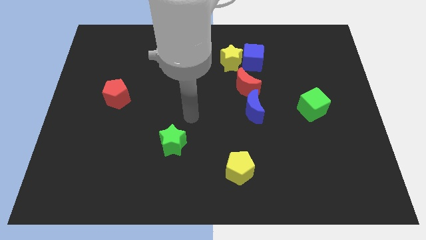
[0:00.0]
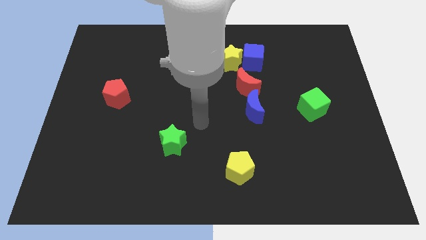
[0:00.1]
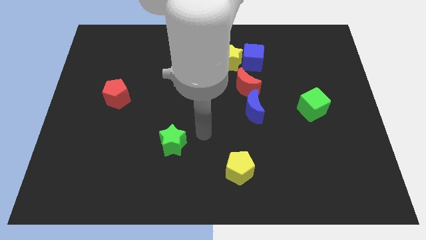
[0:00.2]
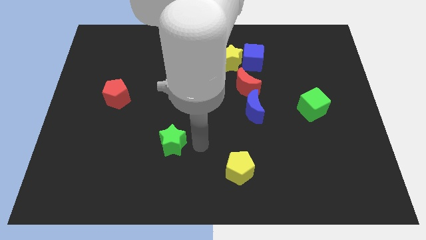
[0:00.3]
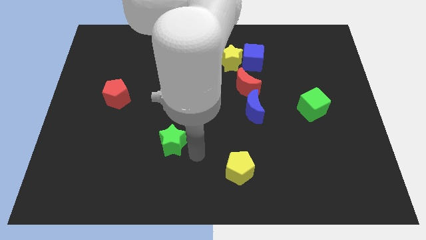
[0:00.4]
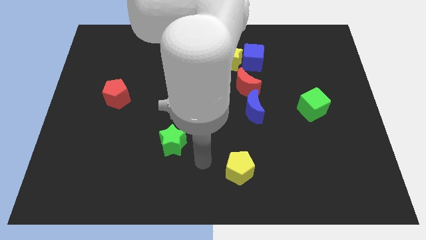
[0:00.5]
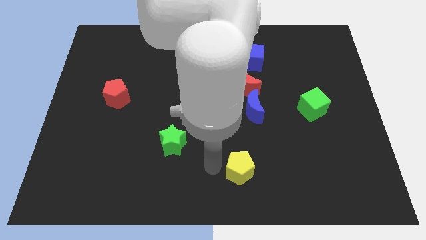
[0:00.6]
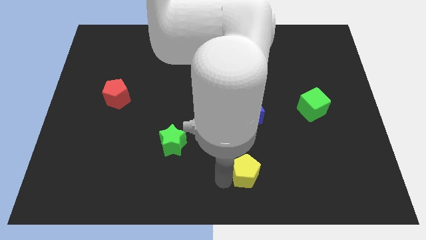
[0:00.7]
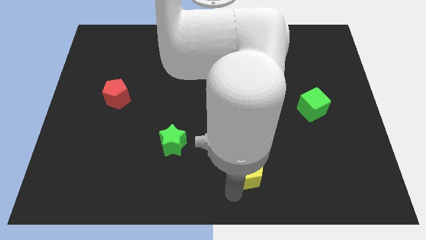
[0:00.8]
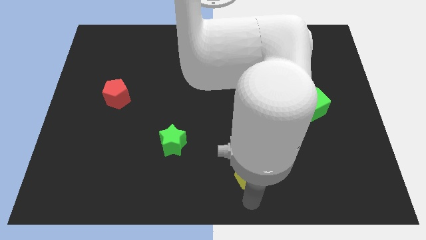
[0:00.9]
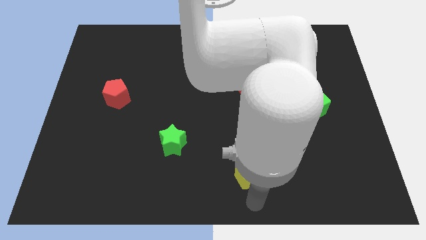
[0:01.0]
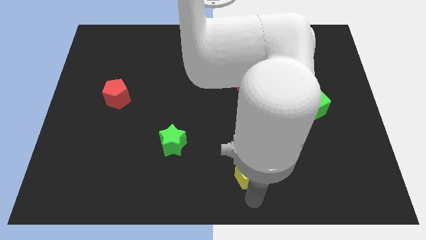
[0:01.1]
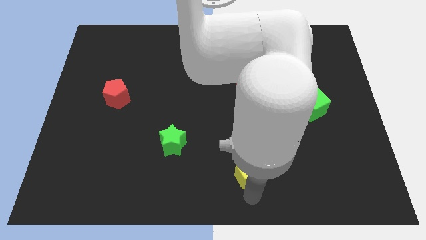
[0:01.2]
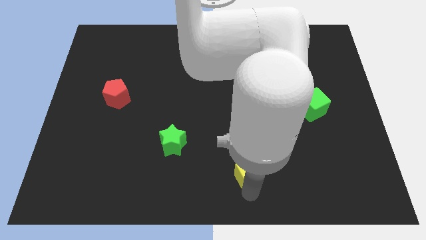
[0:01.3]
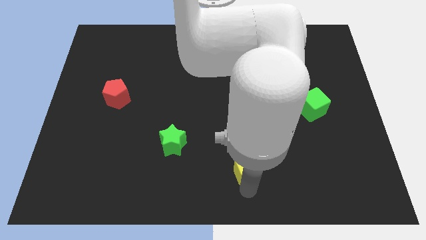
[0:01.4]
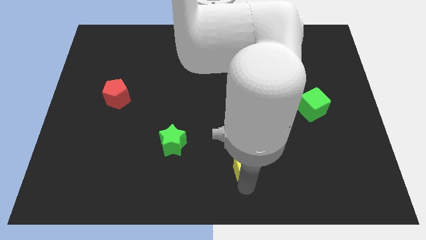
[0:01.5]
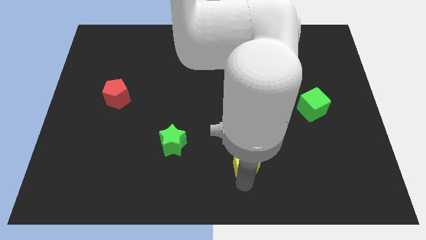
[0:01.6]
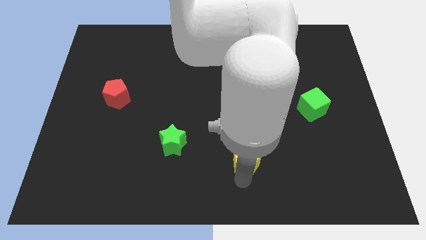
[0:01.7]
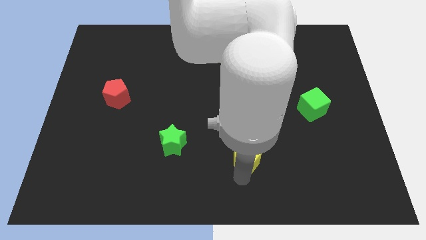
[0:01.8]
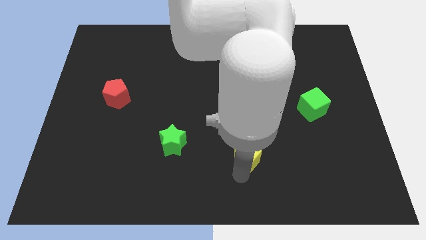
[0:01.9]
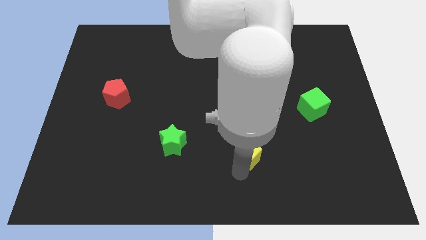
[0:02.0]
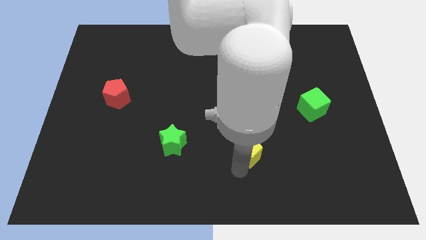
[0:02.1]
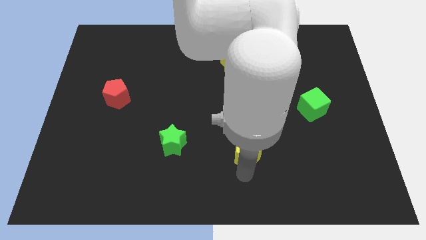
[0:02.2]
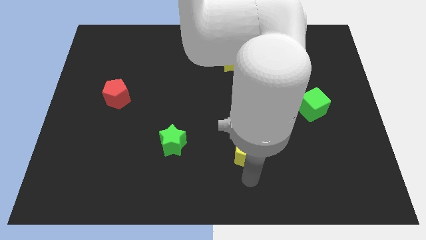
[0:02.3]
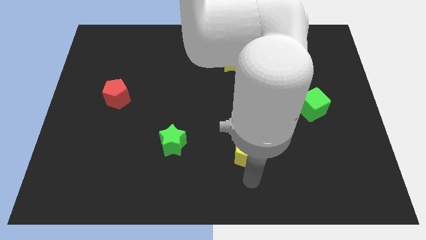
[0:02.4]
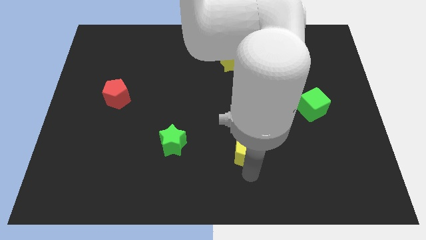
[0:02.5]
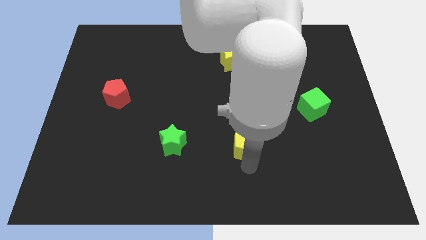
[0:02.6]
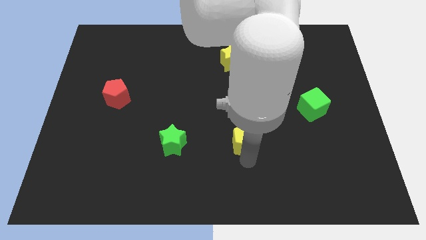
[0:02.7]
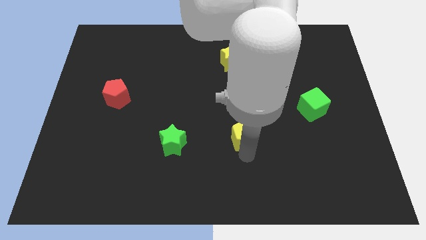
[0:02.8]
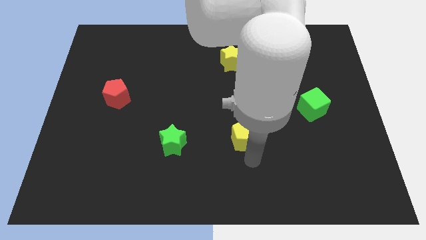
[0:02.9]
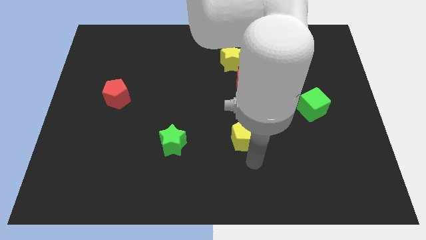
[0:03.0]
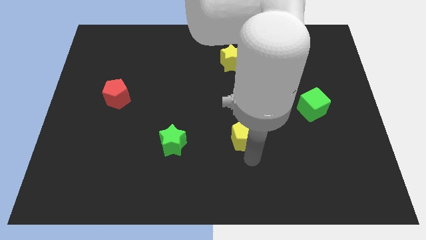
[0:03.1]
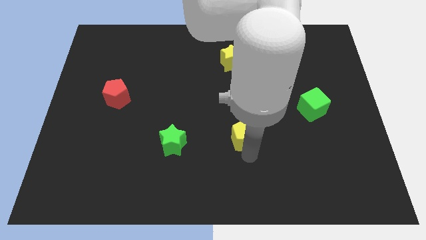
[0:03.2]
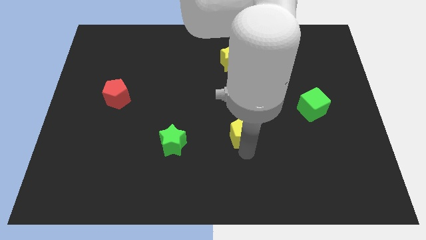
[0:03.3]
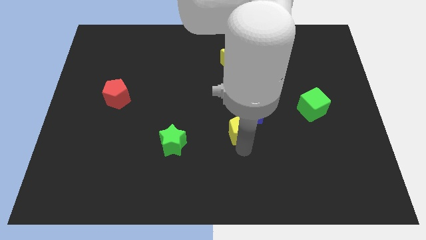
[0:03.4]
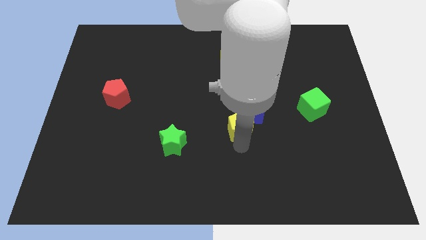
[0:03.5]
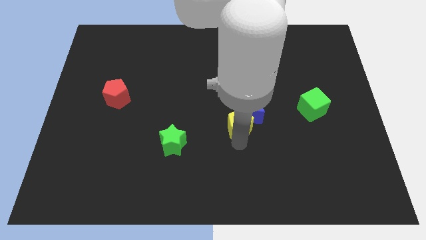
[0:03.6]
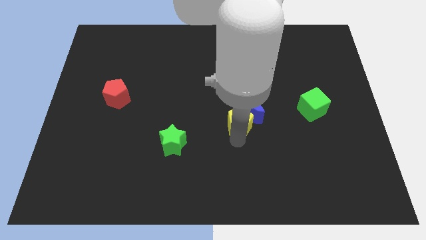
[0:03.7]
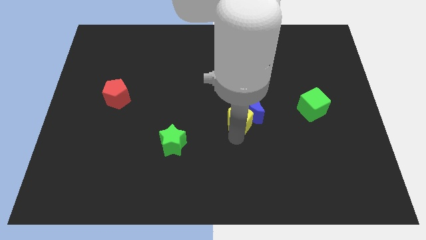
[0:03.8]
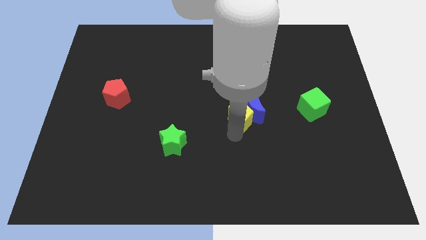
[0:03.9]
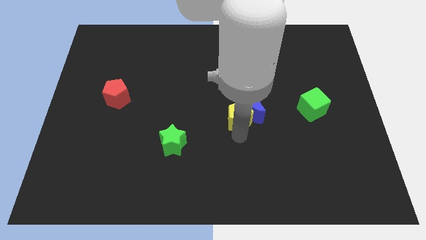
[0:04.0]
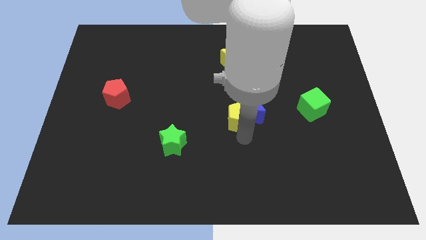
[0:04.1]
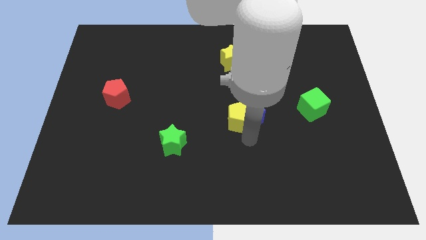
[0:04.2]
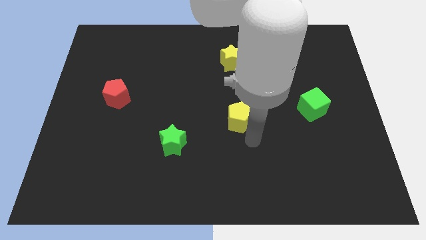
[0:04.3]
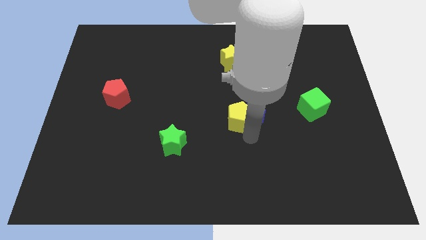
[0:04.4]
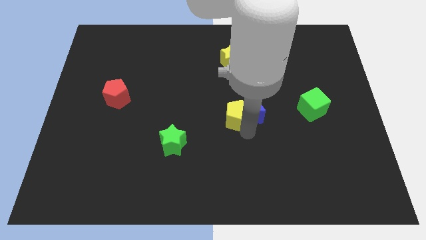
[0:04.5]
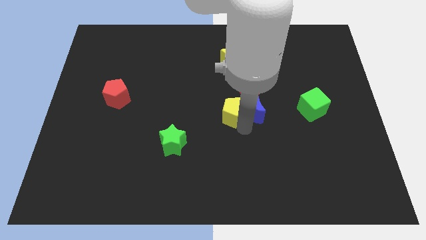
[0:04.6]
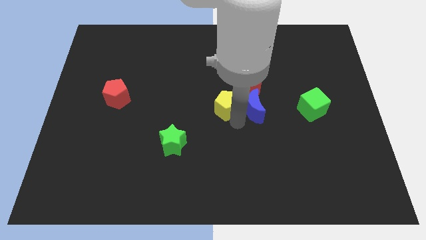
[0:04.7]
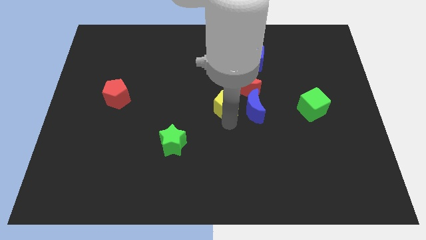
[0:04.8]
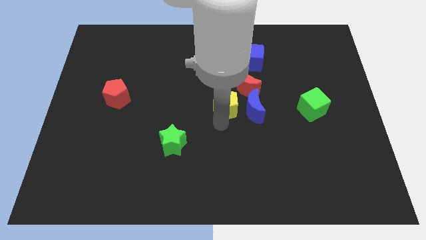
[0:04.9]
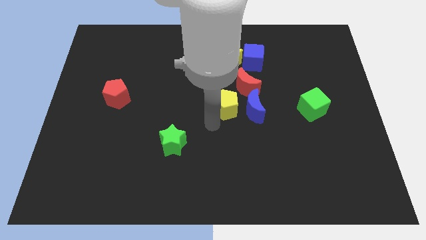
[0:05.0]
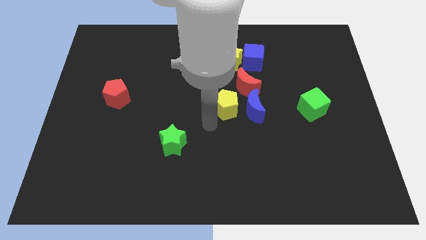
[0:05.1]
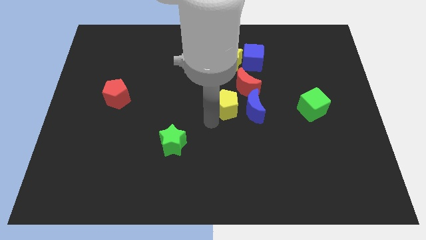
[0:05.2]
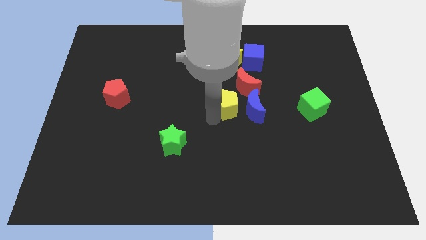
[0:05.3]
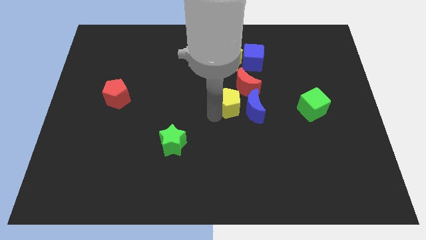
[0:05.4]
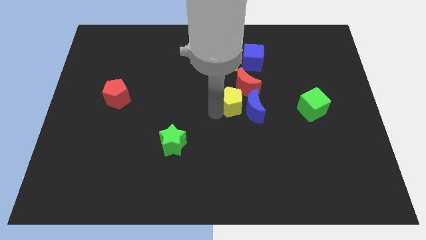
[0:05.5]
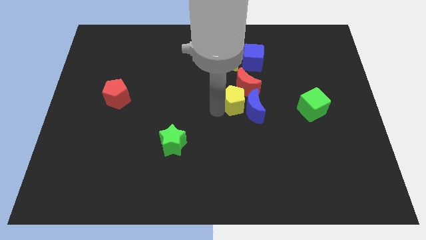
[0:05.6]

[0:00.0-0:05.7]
move the yellow pentagon close to the red moon

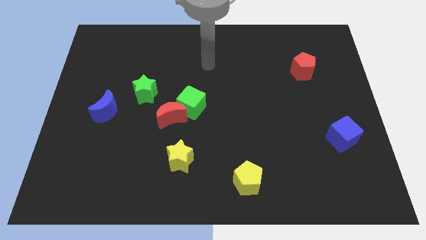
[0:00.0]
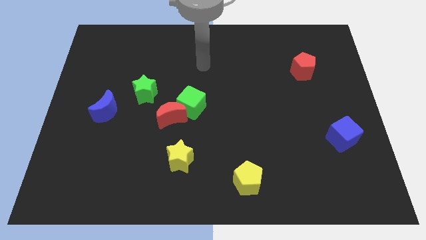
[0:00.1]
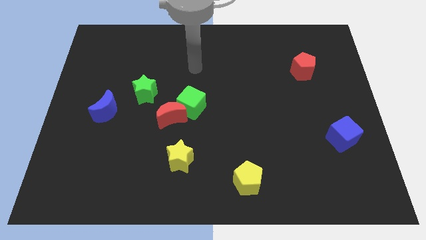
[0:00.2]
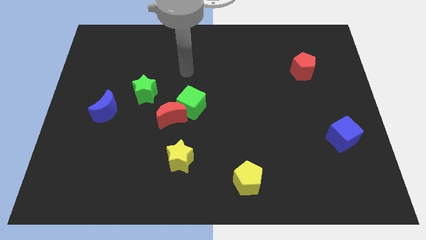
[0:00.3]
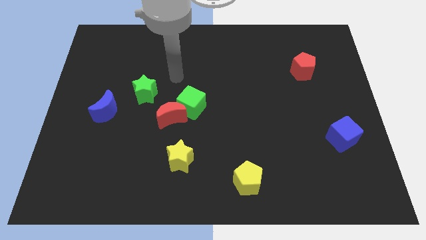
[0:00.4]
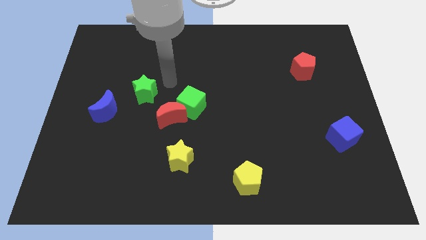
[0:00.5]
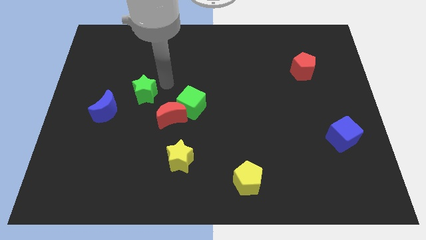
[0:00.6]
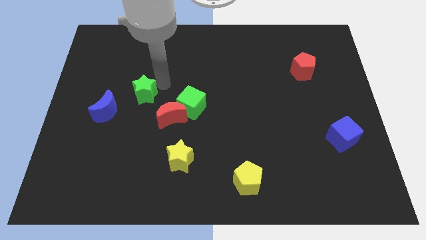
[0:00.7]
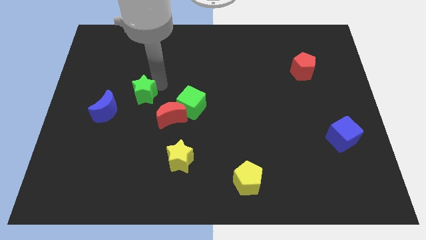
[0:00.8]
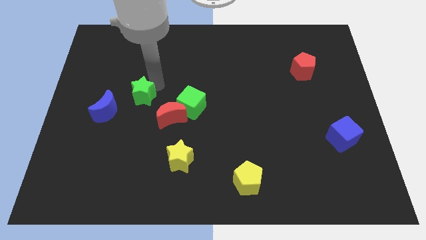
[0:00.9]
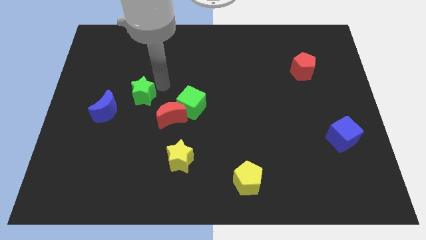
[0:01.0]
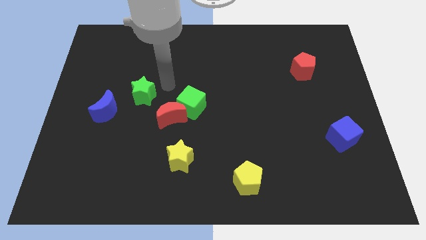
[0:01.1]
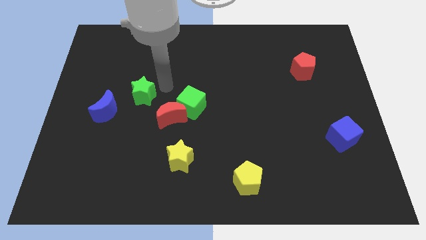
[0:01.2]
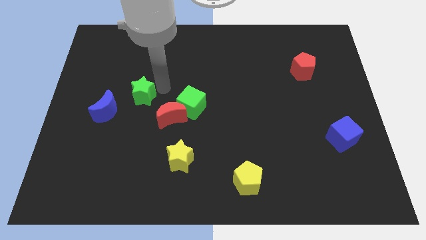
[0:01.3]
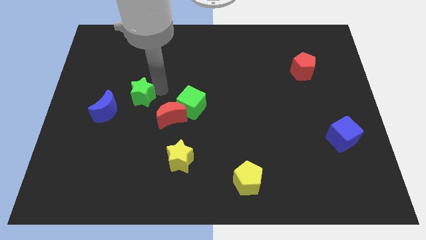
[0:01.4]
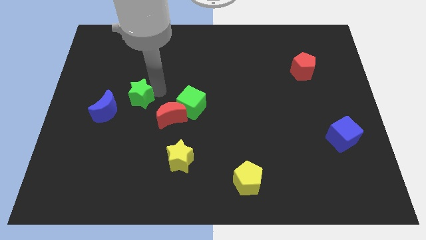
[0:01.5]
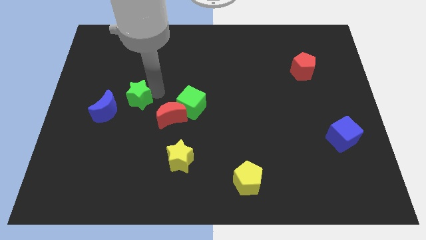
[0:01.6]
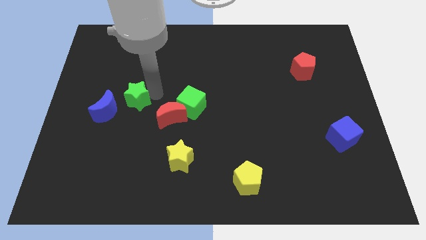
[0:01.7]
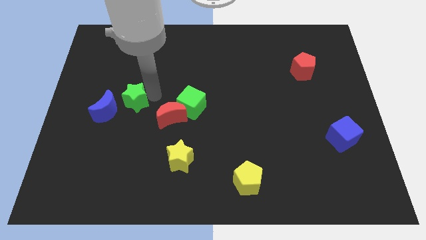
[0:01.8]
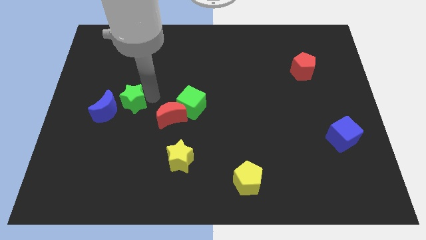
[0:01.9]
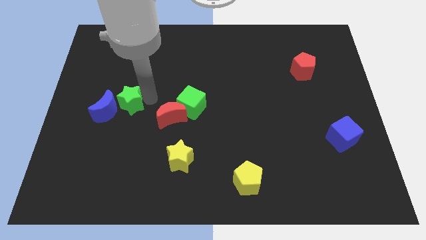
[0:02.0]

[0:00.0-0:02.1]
put the green star close to the blue moon
